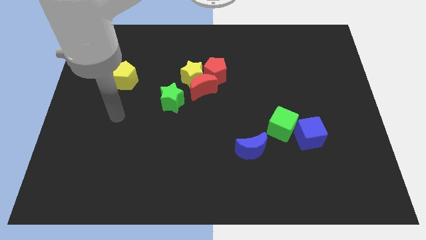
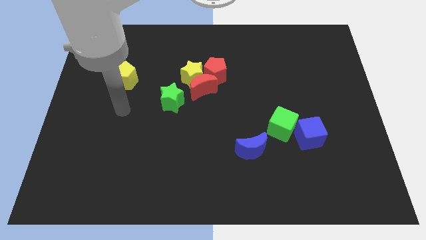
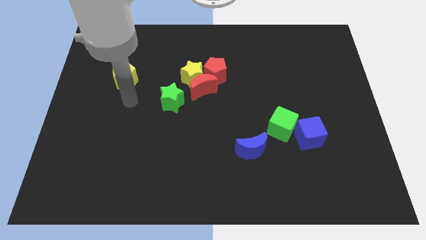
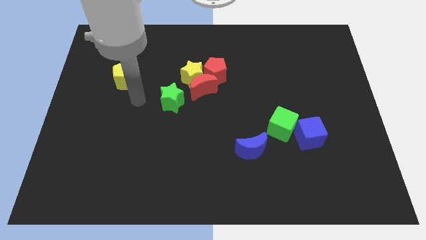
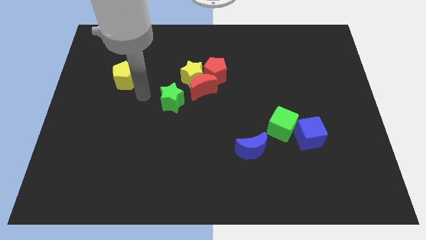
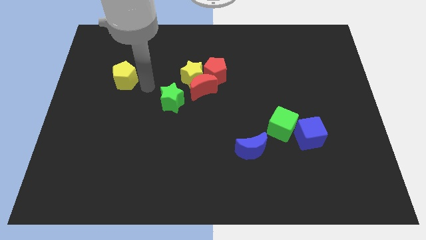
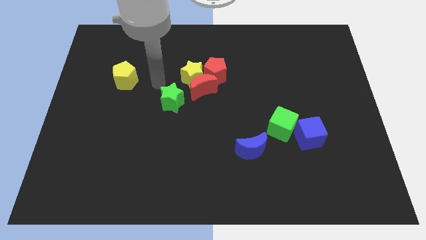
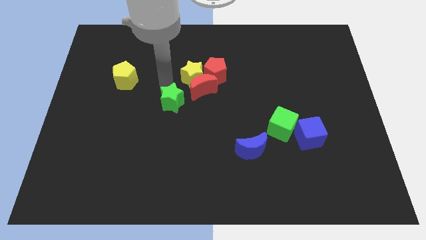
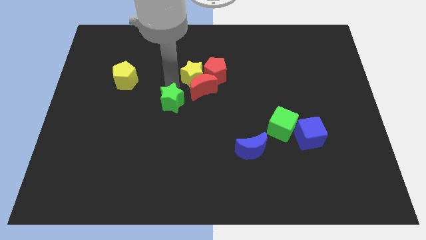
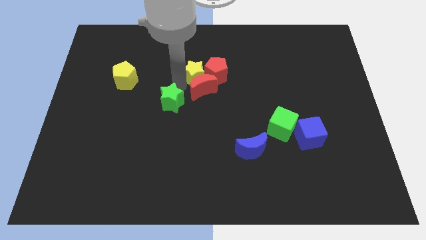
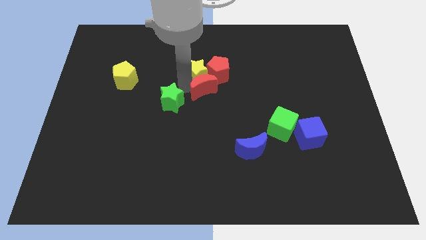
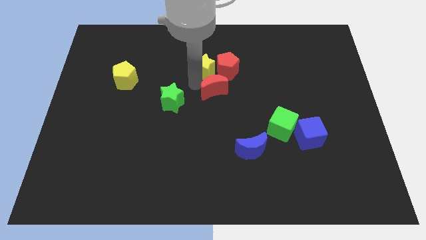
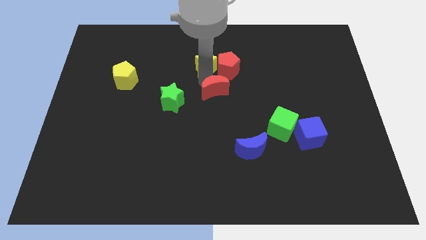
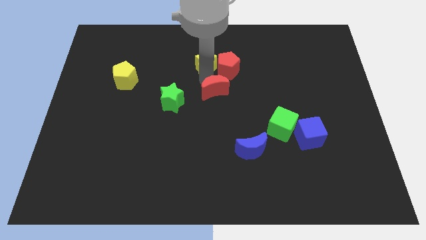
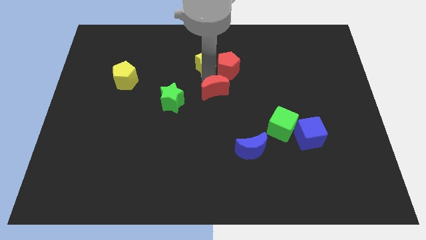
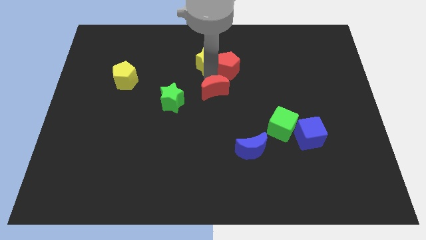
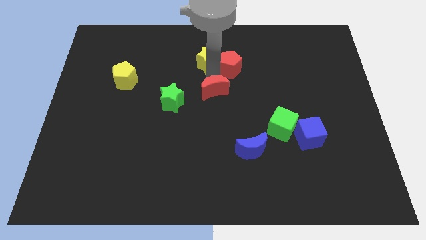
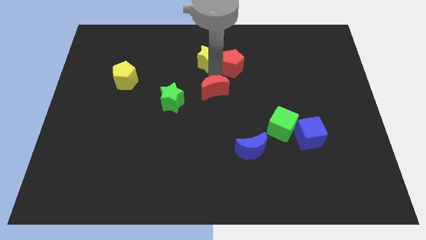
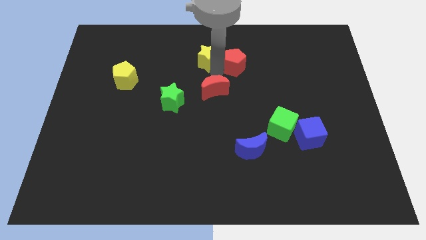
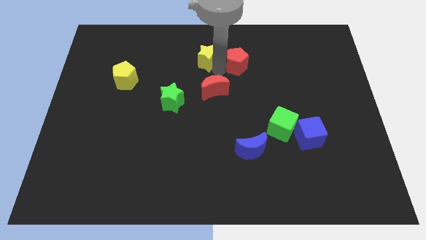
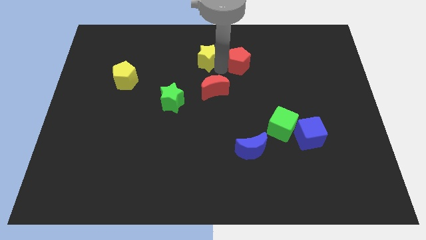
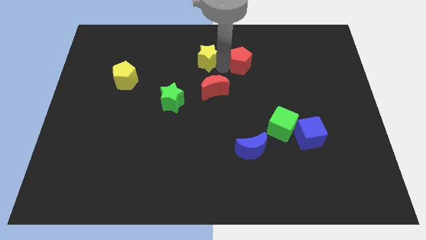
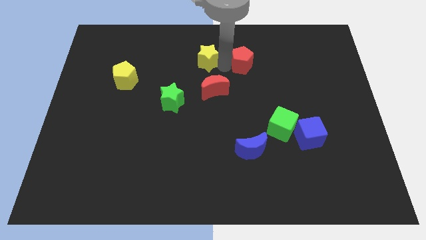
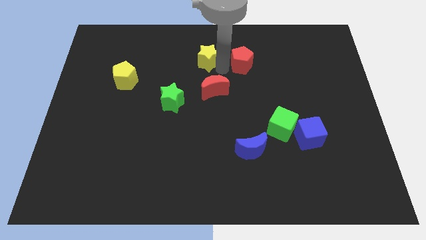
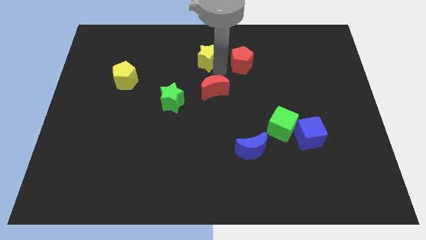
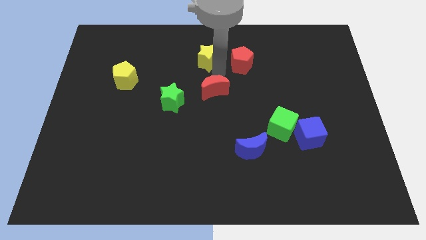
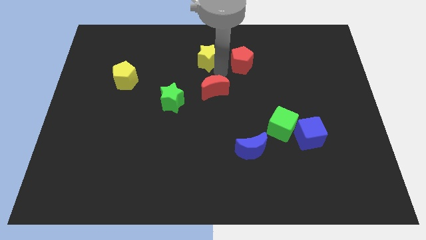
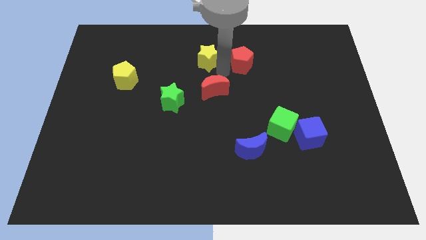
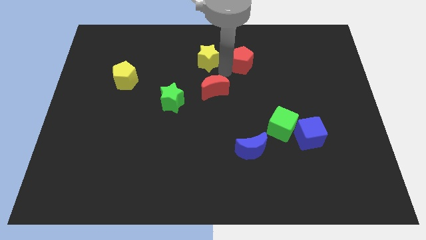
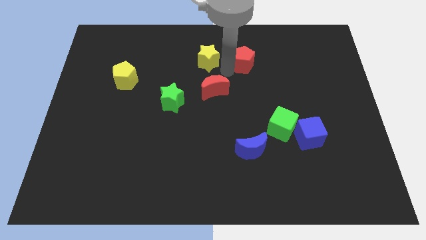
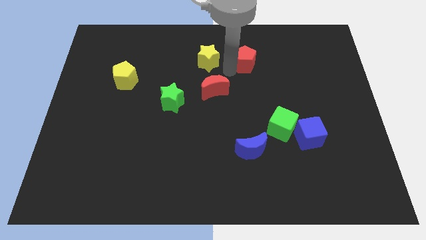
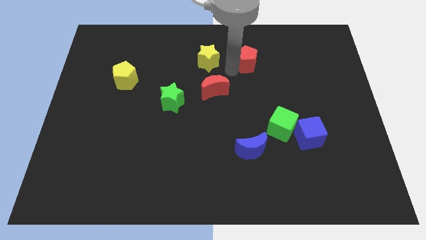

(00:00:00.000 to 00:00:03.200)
separate the red pentagon from the red moon and yellow star

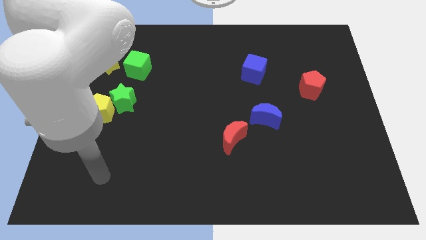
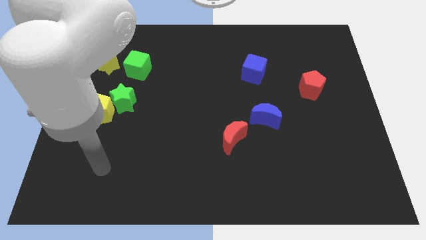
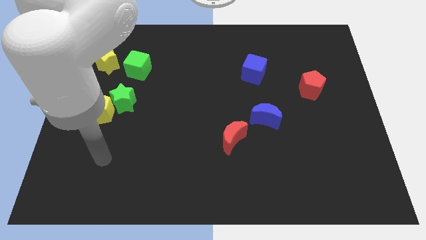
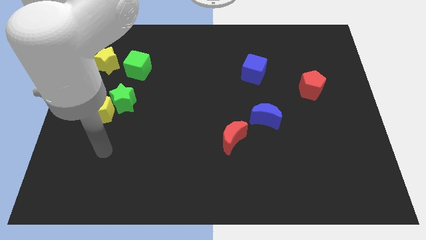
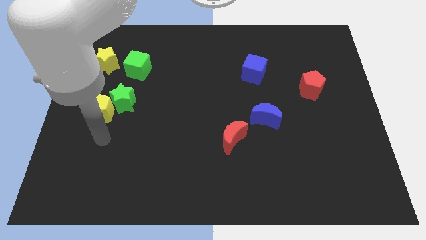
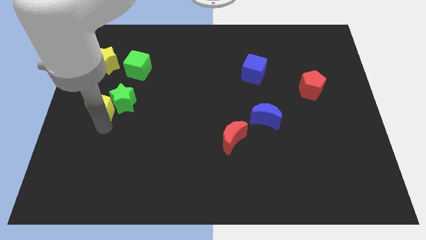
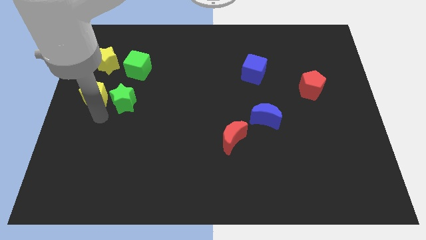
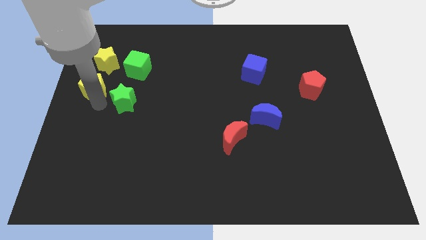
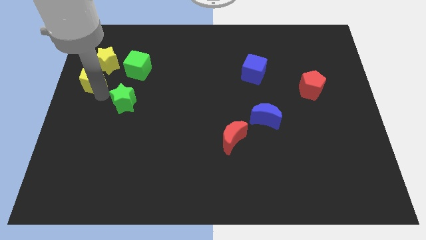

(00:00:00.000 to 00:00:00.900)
move the green star away from the yellow pentagon

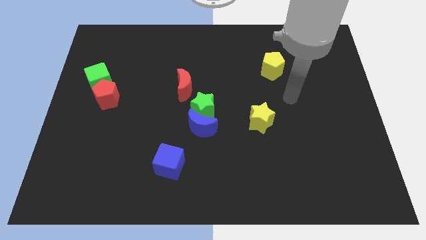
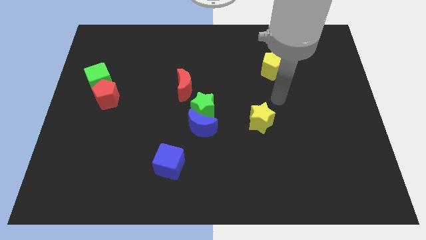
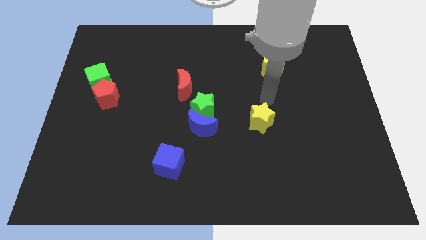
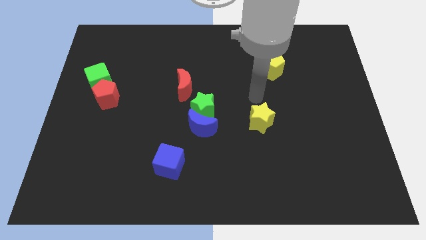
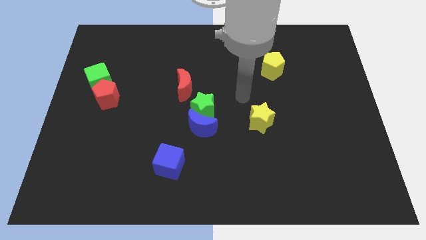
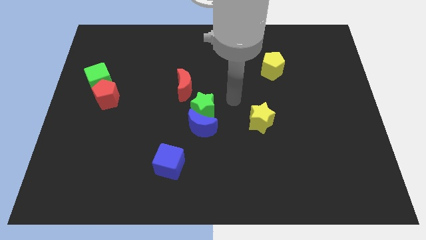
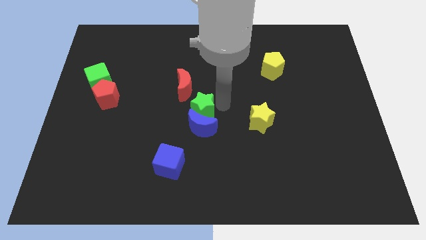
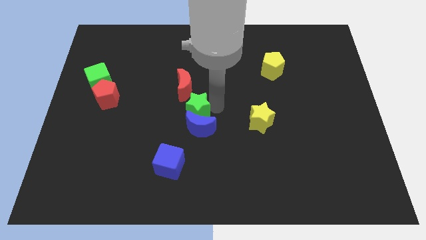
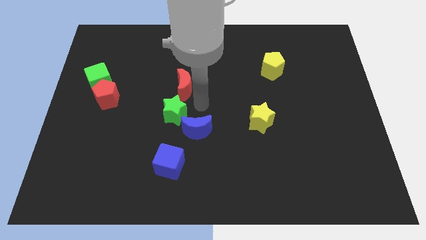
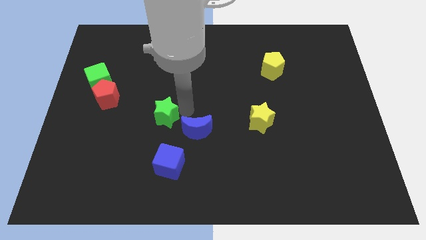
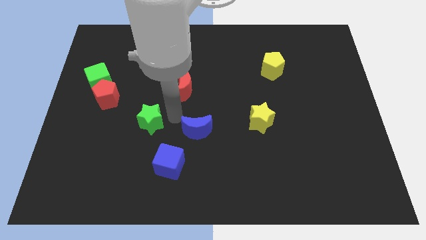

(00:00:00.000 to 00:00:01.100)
pull the blue moon apart from the green star

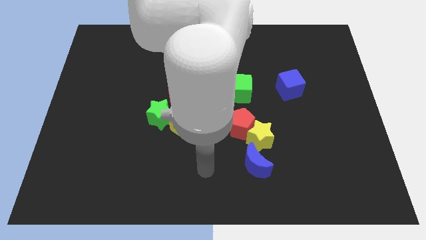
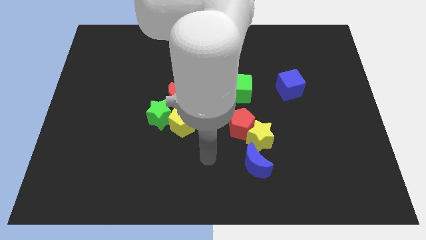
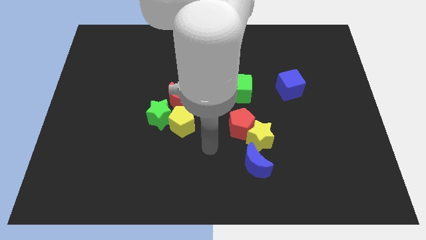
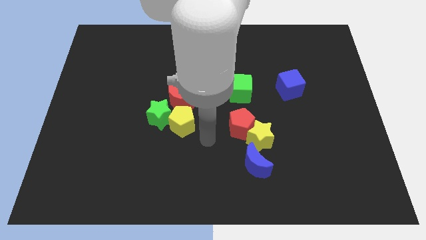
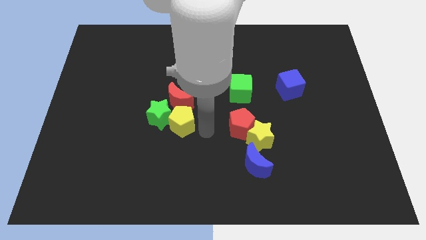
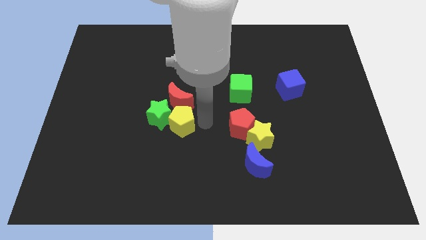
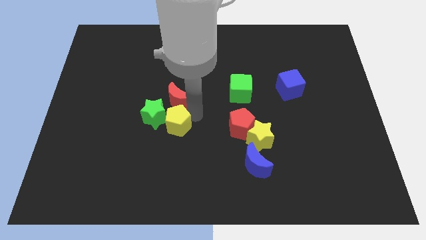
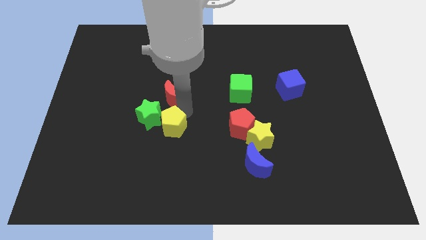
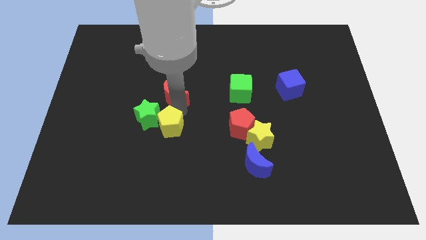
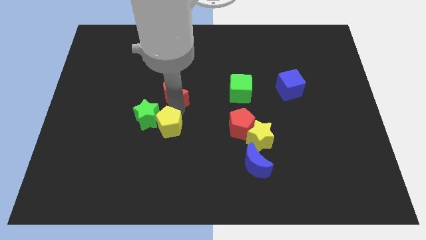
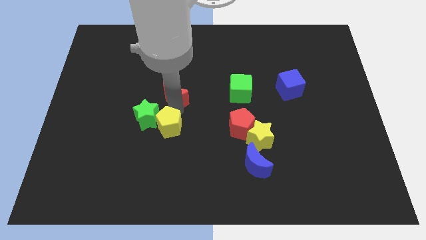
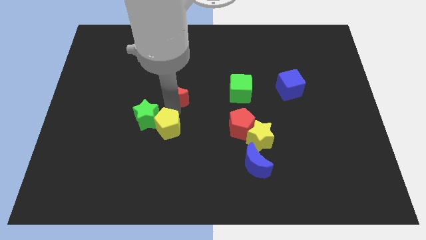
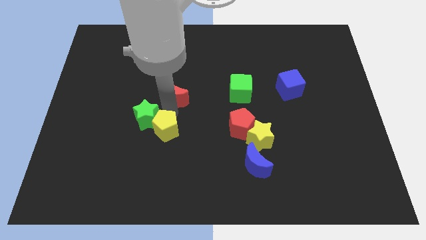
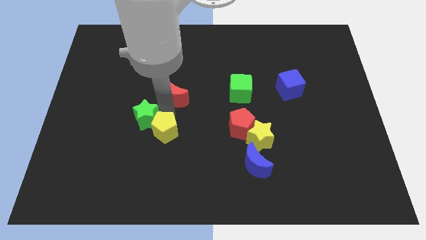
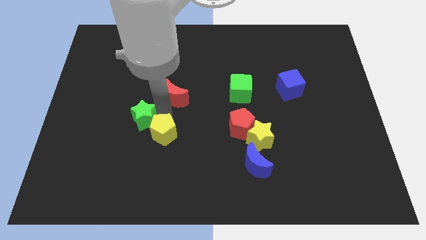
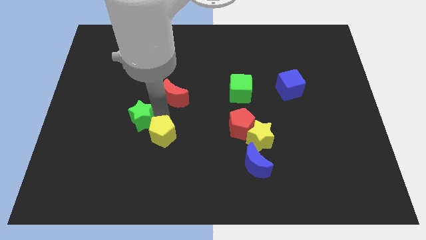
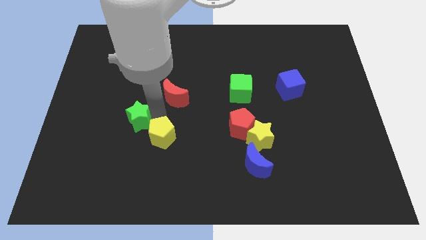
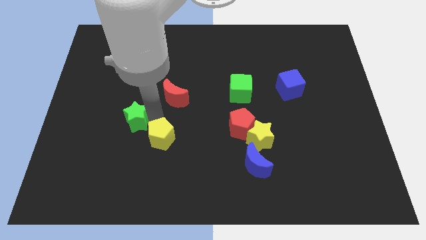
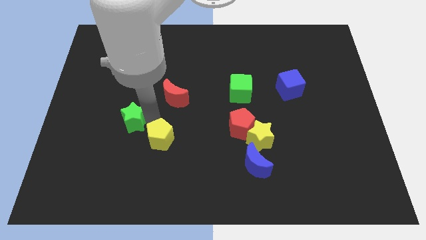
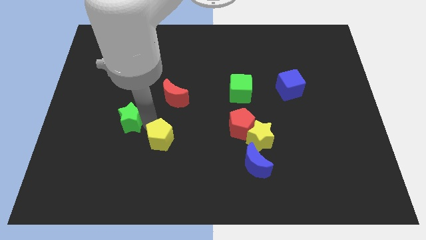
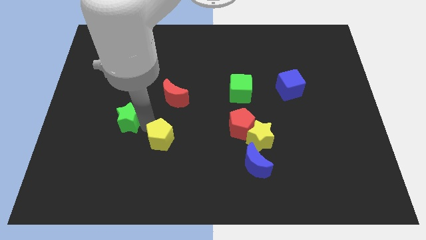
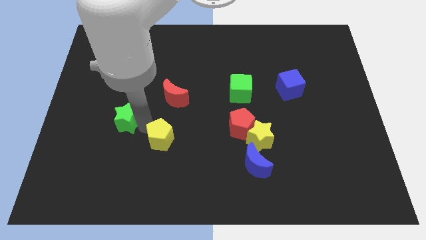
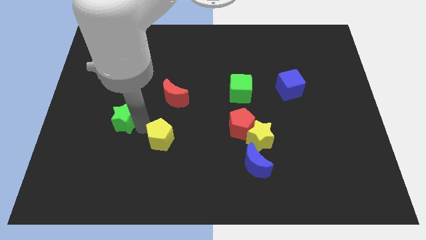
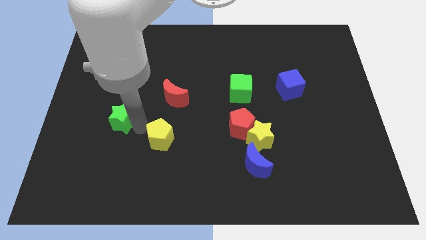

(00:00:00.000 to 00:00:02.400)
pull the green star apart from the yellow pentagon and red moon

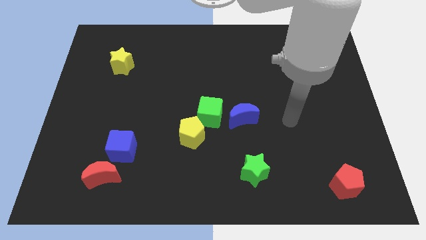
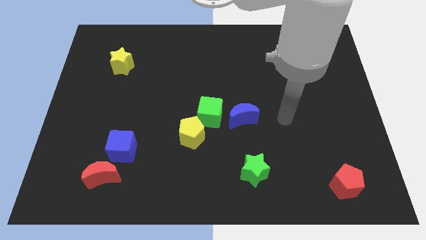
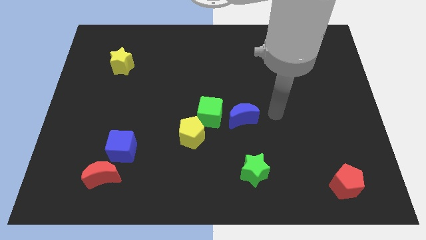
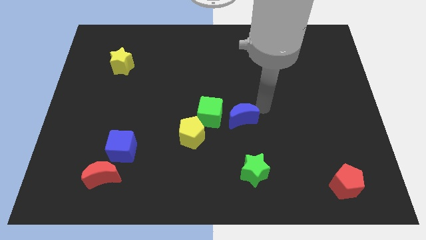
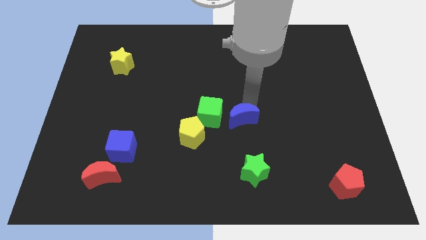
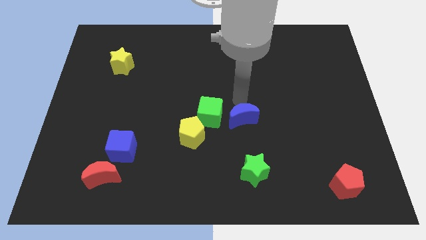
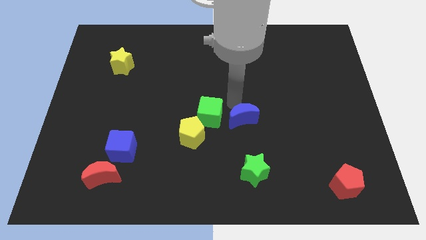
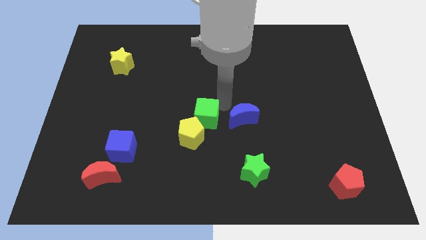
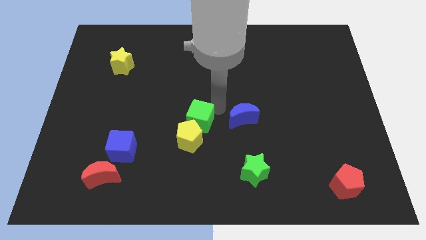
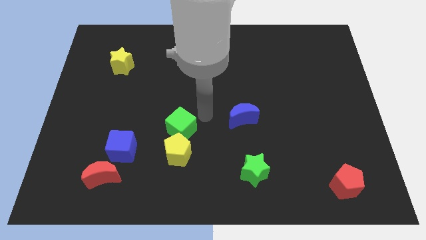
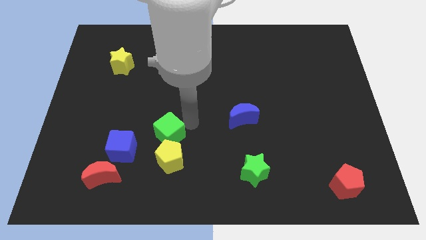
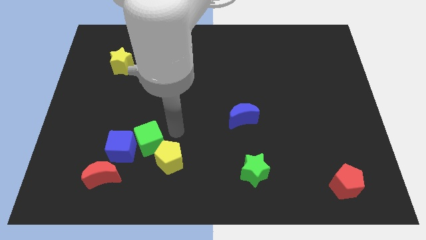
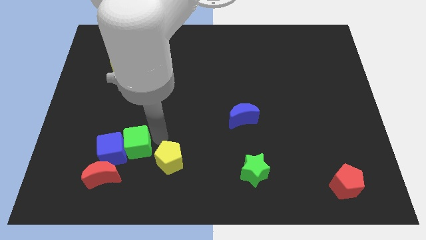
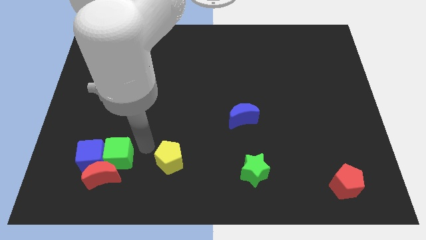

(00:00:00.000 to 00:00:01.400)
move the yellow pentagon away from the green cube

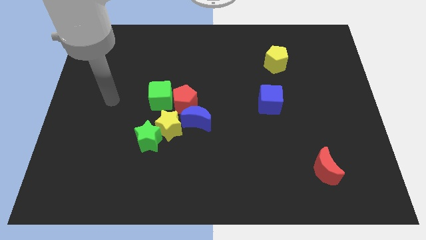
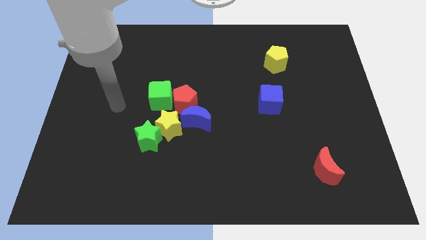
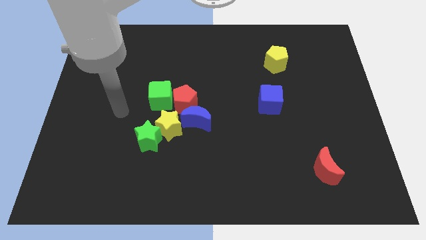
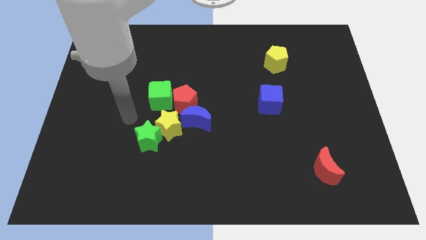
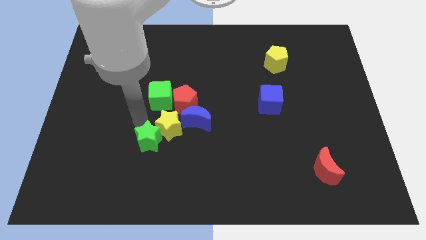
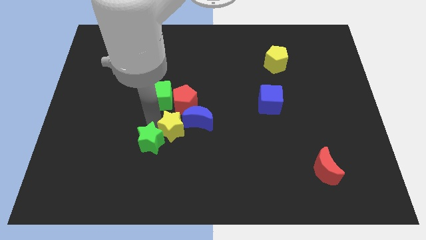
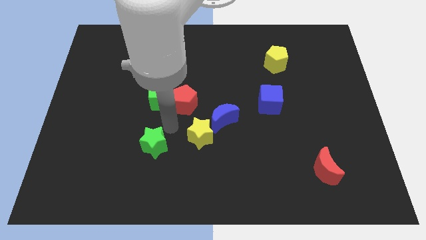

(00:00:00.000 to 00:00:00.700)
pull the green star apart from the yellow star
